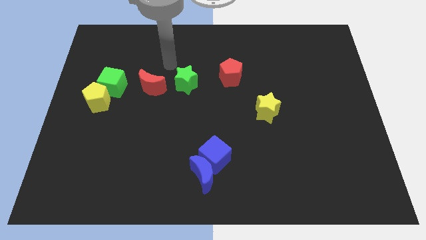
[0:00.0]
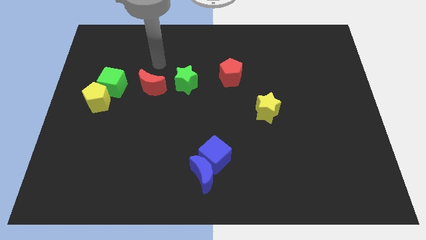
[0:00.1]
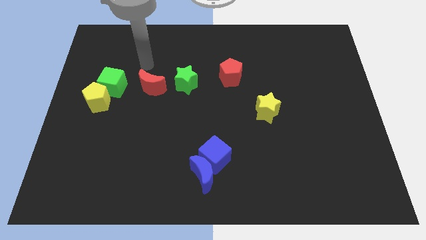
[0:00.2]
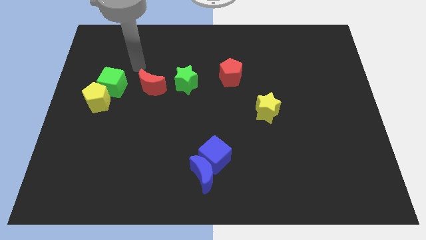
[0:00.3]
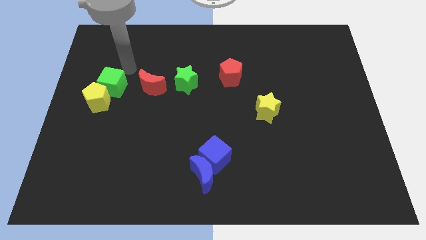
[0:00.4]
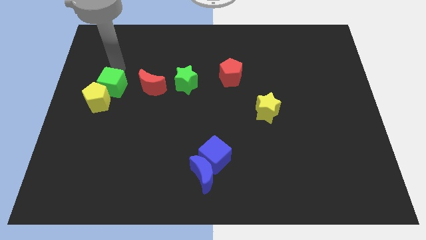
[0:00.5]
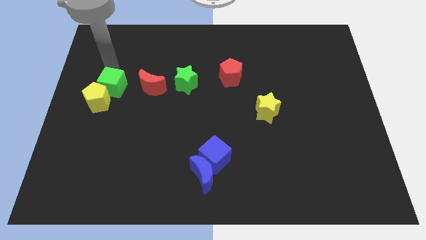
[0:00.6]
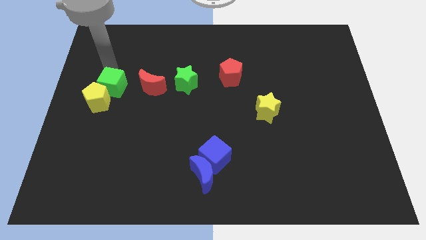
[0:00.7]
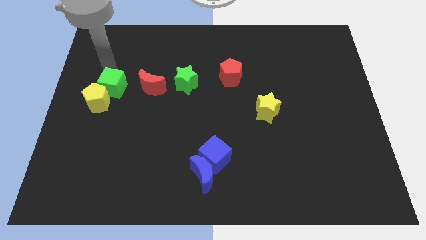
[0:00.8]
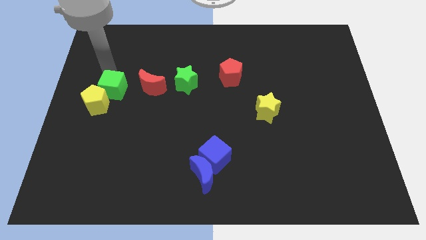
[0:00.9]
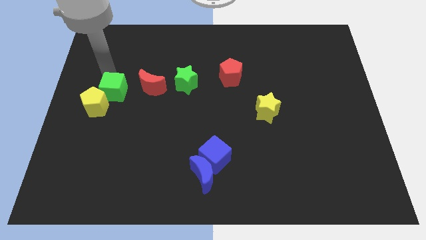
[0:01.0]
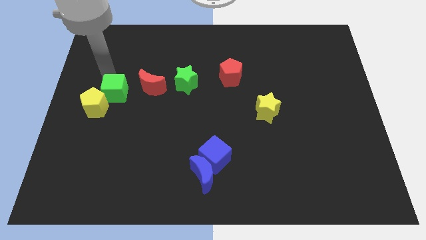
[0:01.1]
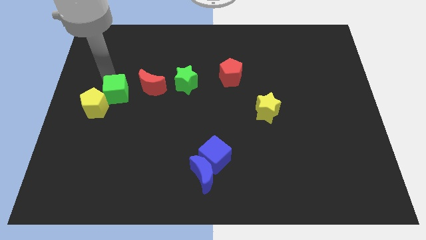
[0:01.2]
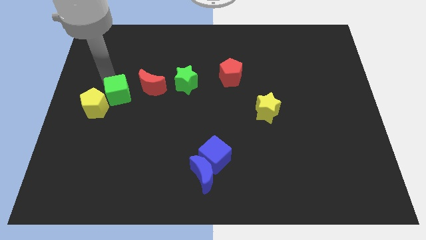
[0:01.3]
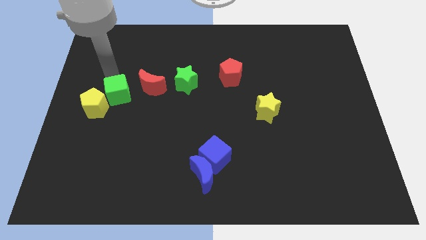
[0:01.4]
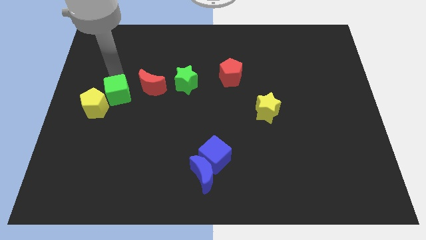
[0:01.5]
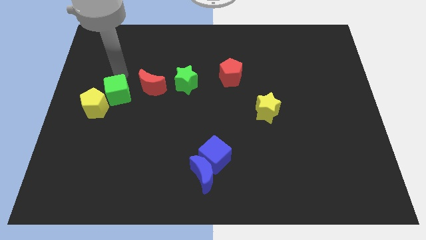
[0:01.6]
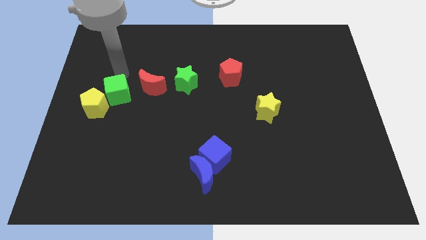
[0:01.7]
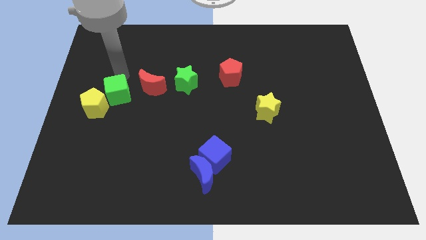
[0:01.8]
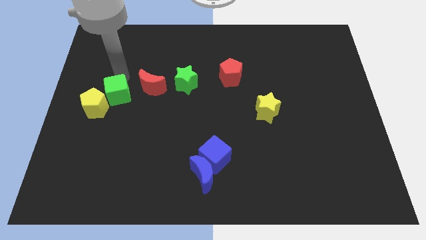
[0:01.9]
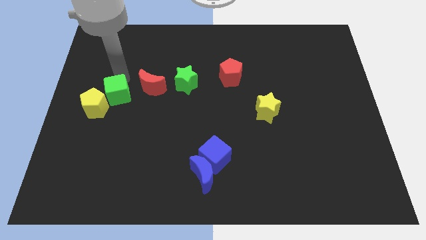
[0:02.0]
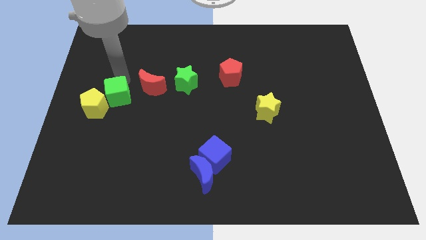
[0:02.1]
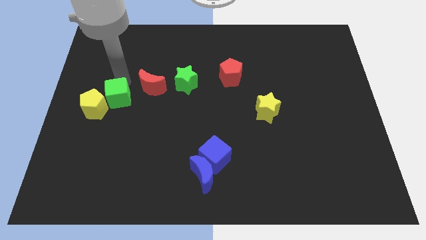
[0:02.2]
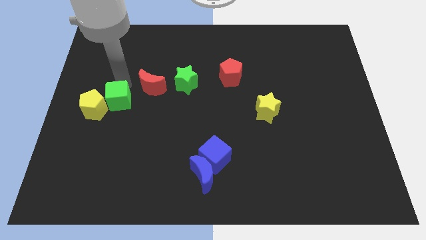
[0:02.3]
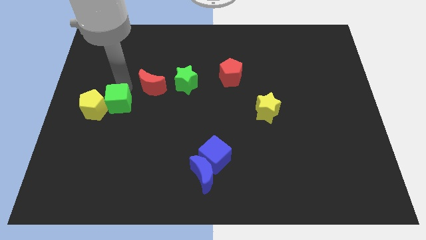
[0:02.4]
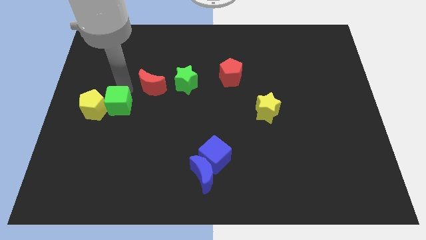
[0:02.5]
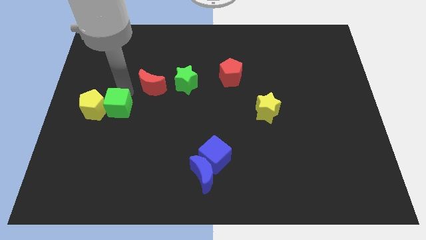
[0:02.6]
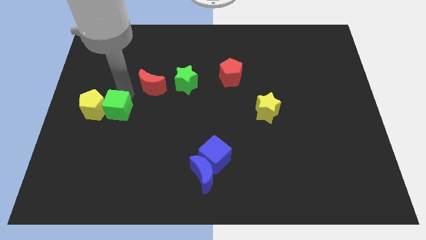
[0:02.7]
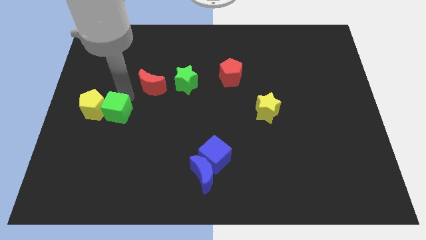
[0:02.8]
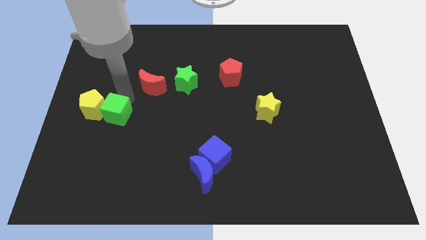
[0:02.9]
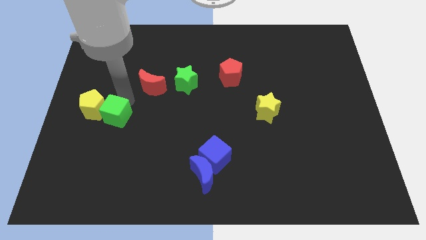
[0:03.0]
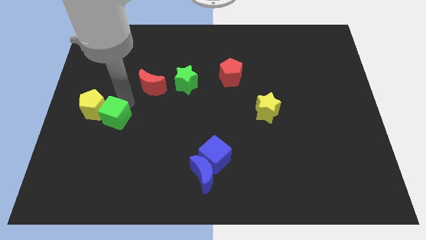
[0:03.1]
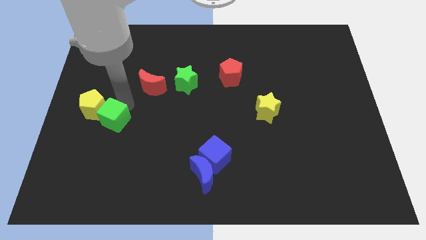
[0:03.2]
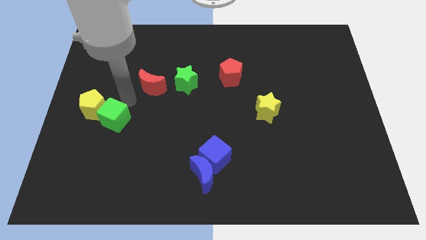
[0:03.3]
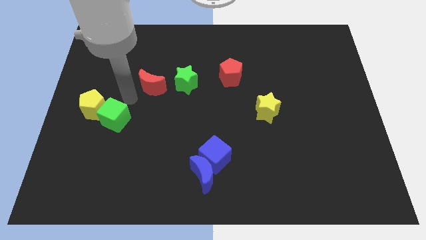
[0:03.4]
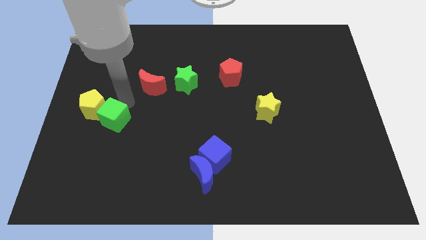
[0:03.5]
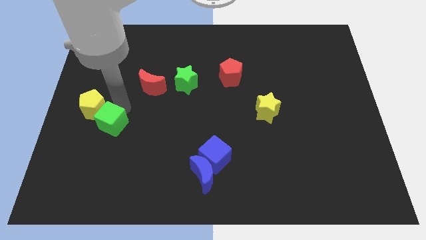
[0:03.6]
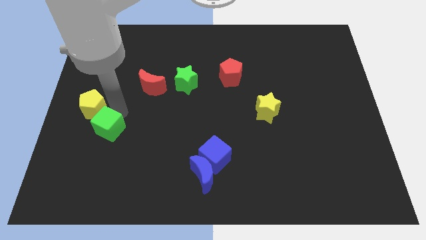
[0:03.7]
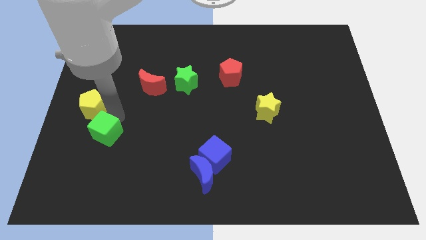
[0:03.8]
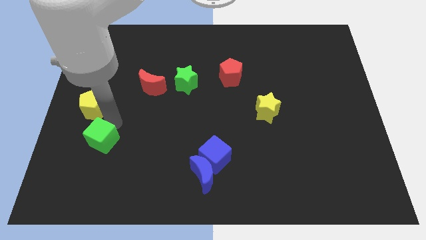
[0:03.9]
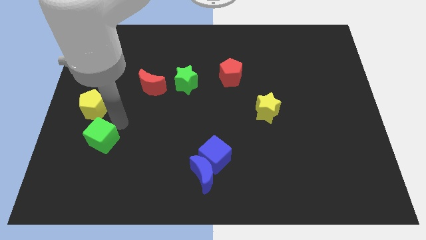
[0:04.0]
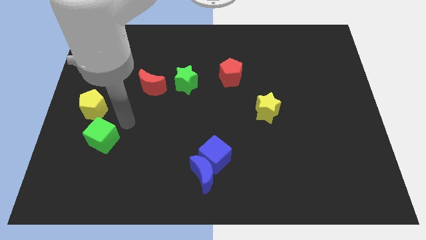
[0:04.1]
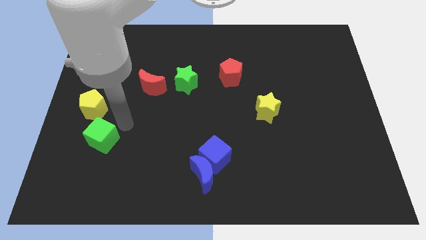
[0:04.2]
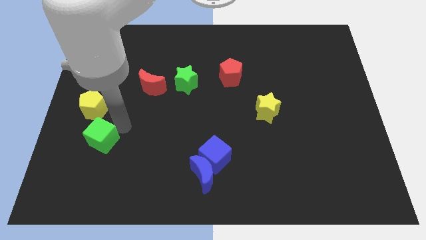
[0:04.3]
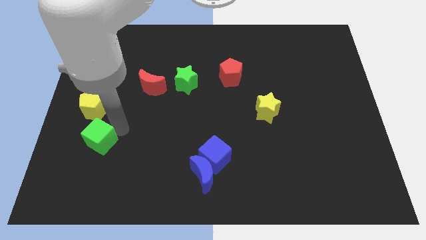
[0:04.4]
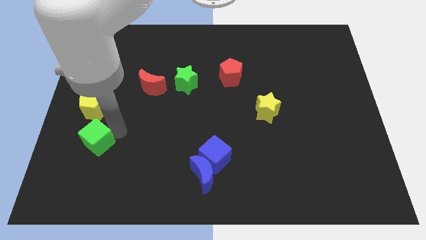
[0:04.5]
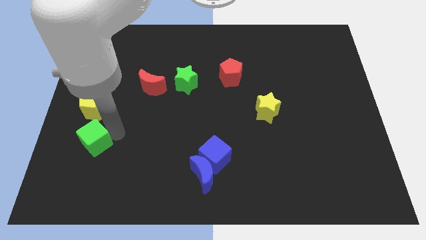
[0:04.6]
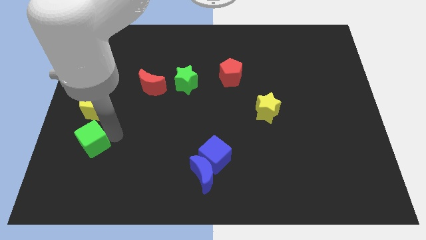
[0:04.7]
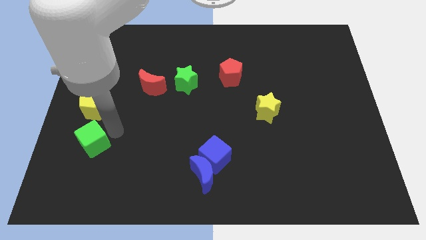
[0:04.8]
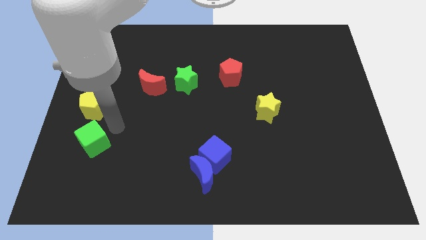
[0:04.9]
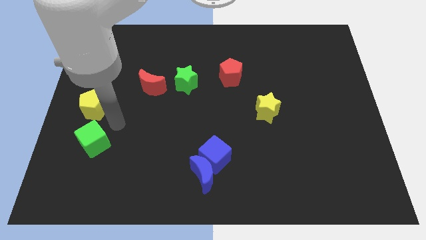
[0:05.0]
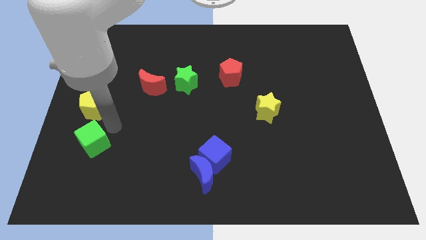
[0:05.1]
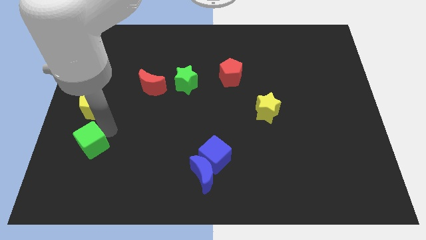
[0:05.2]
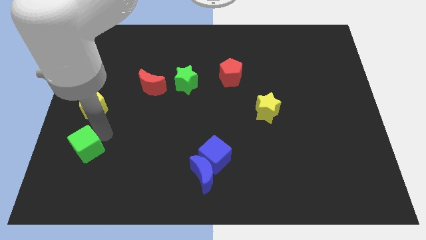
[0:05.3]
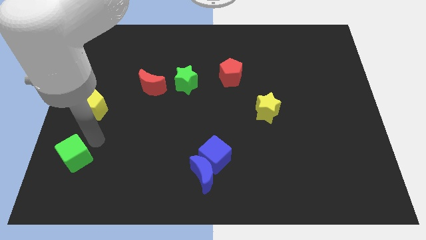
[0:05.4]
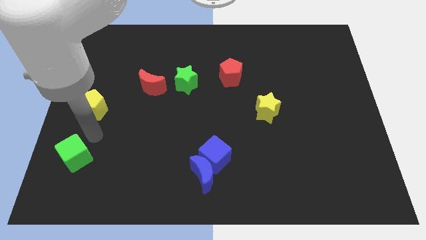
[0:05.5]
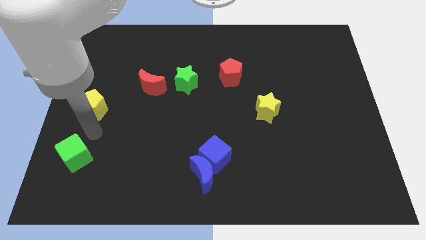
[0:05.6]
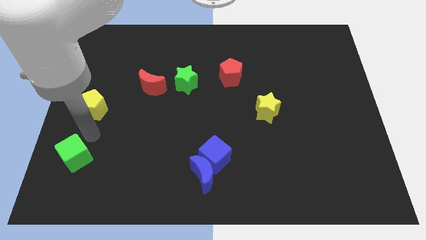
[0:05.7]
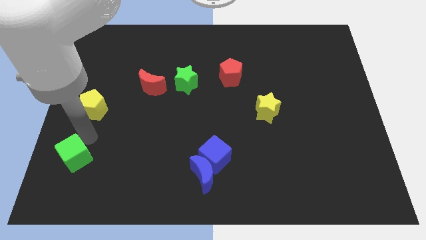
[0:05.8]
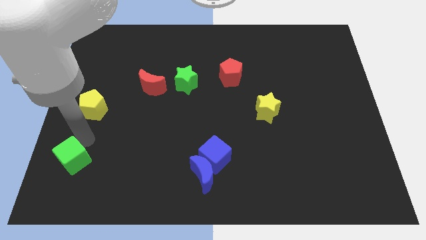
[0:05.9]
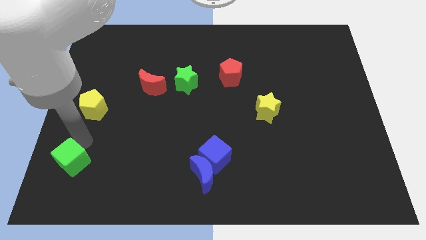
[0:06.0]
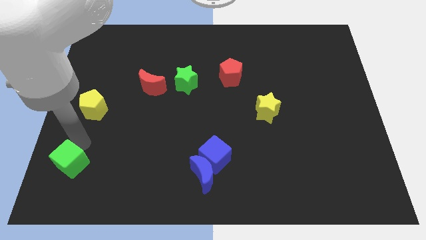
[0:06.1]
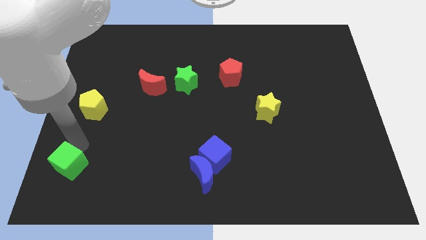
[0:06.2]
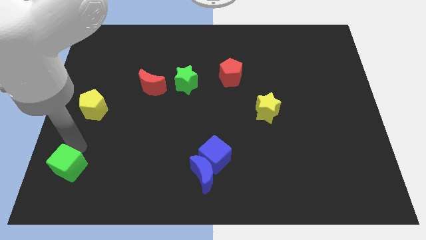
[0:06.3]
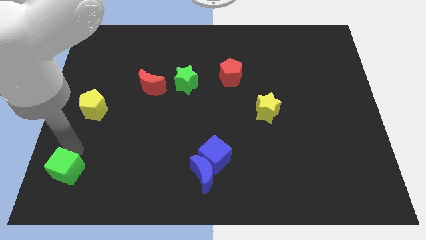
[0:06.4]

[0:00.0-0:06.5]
move the green cube to the lower left corner
